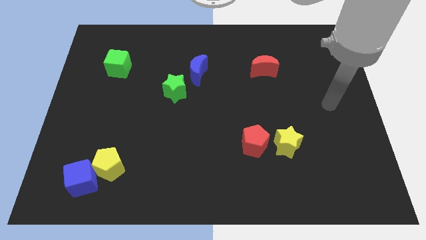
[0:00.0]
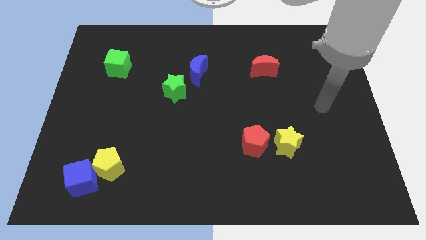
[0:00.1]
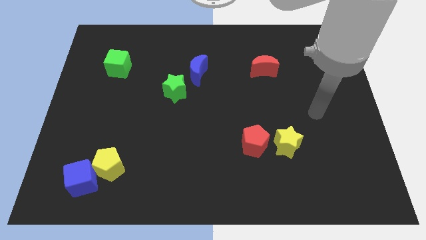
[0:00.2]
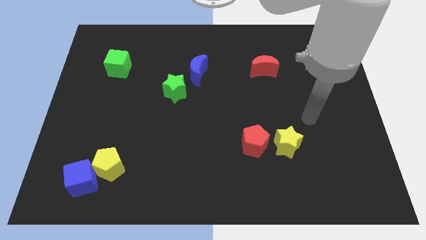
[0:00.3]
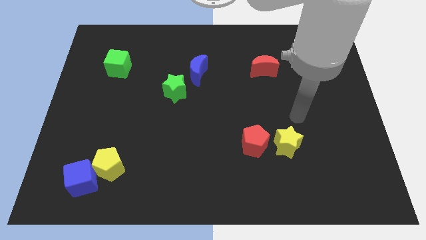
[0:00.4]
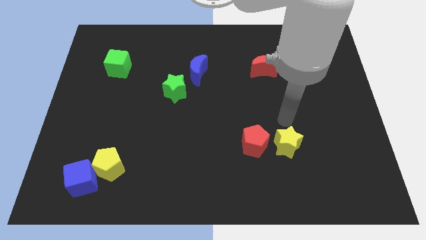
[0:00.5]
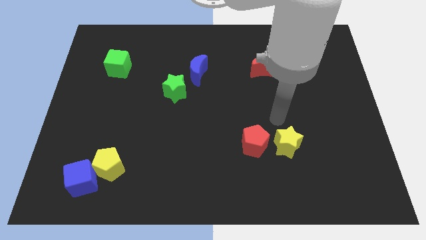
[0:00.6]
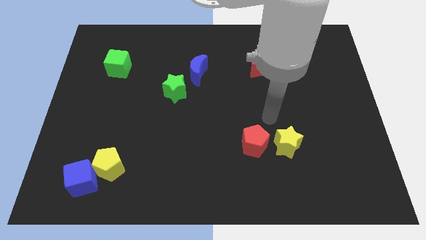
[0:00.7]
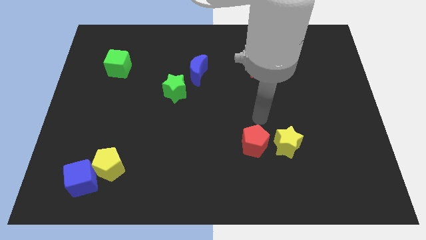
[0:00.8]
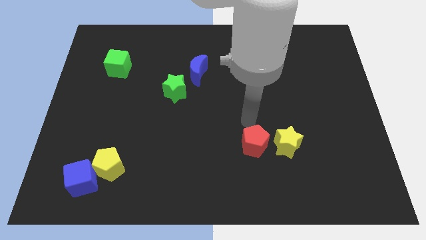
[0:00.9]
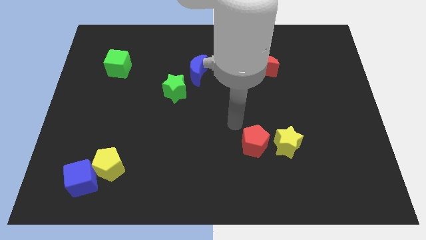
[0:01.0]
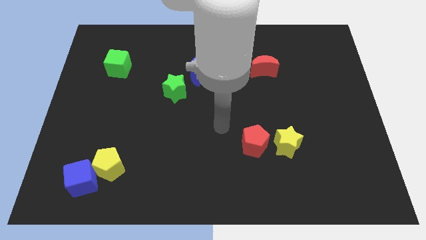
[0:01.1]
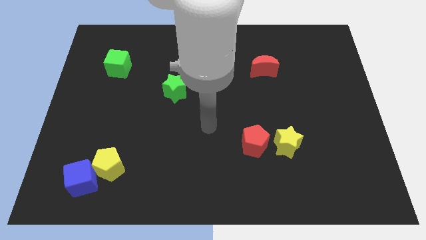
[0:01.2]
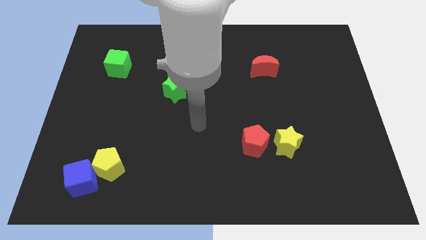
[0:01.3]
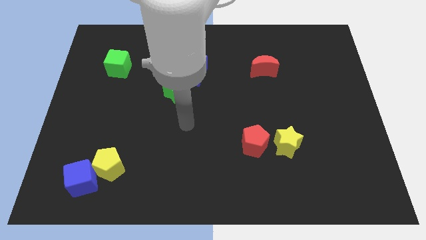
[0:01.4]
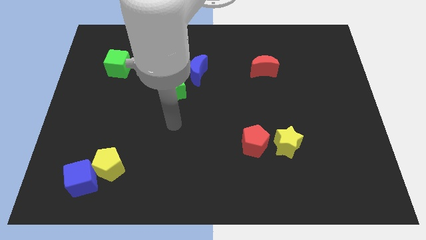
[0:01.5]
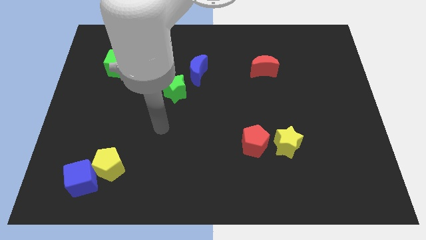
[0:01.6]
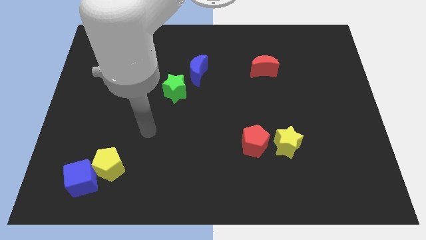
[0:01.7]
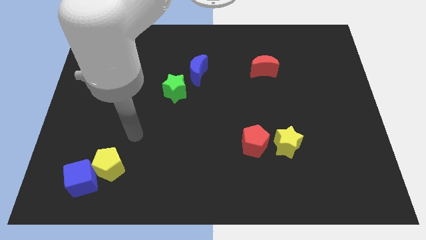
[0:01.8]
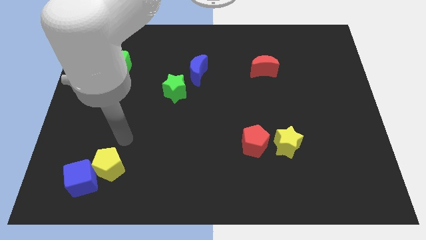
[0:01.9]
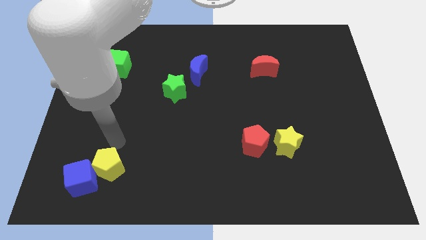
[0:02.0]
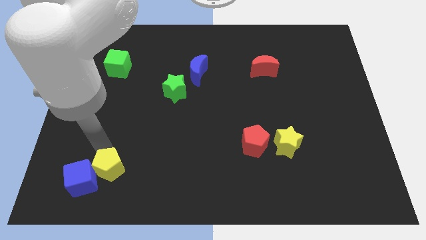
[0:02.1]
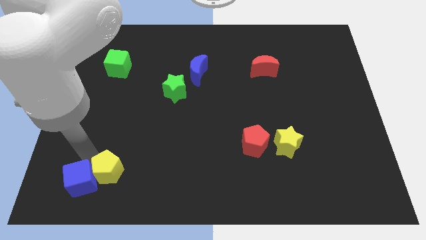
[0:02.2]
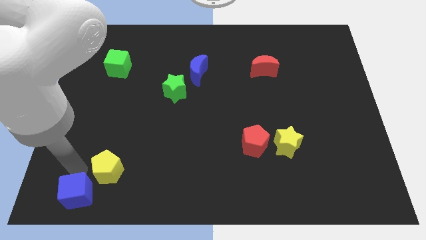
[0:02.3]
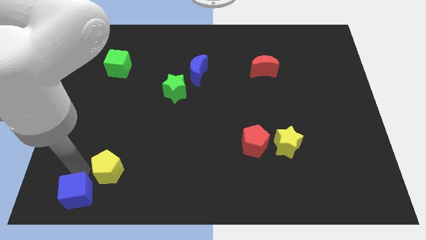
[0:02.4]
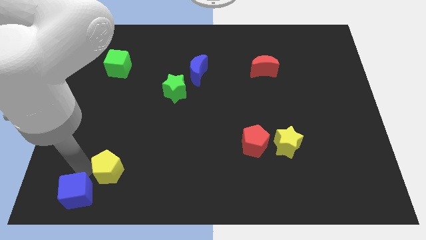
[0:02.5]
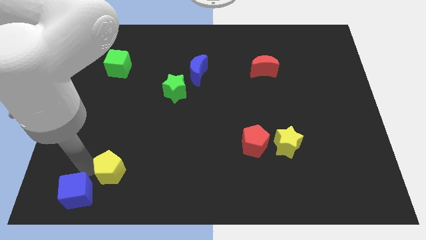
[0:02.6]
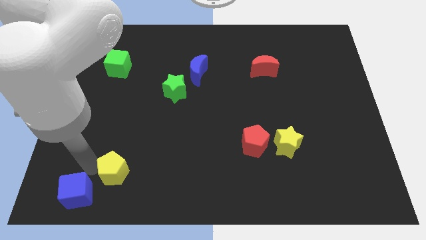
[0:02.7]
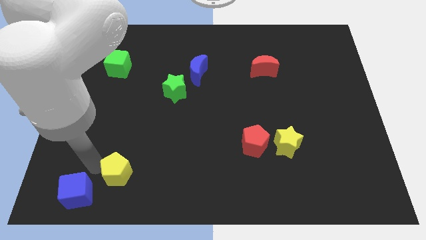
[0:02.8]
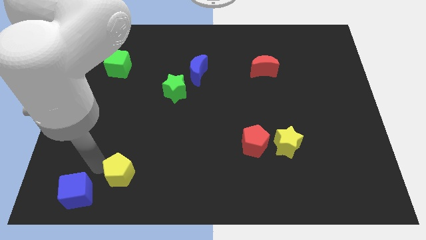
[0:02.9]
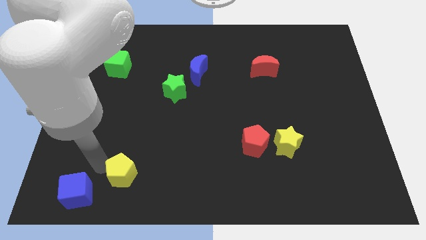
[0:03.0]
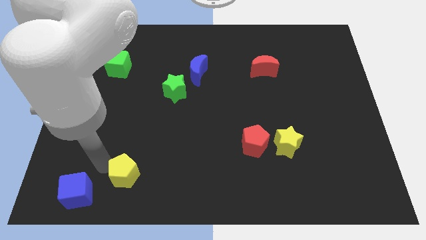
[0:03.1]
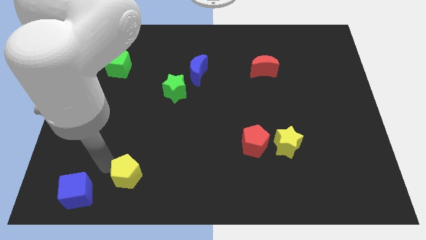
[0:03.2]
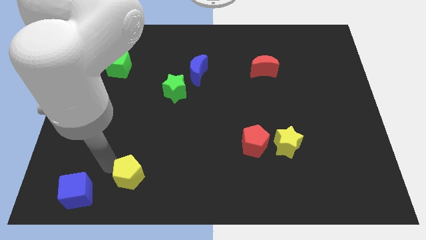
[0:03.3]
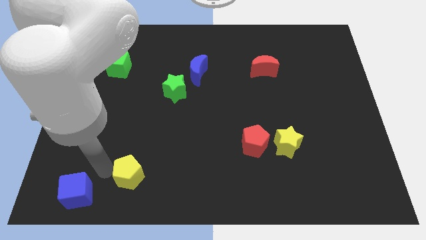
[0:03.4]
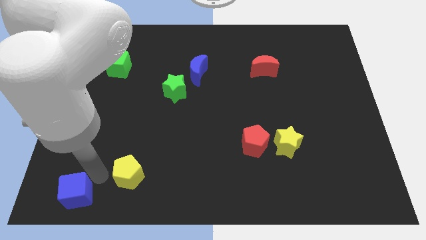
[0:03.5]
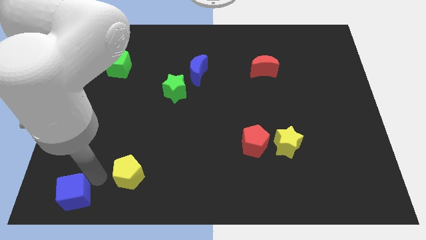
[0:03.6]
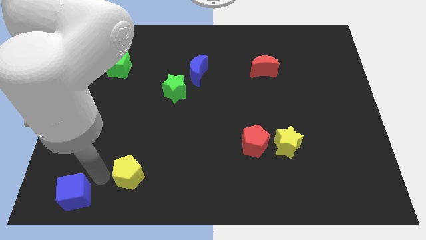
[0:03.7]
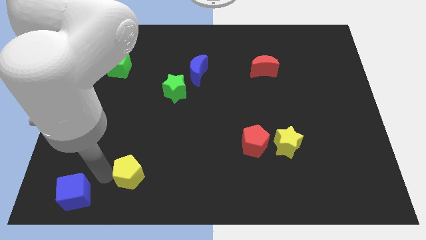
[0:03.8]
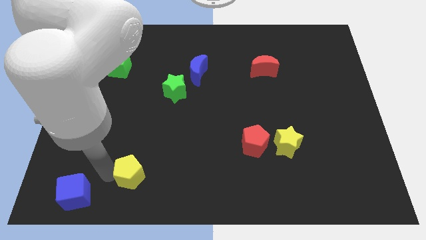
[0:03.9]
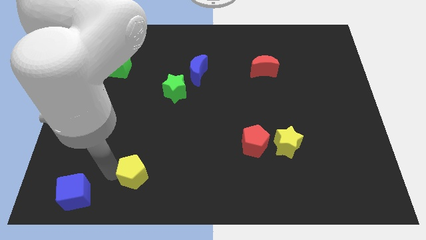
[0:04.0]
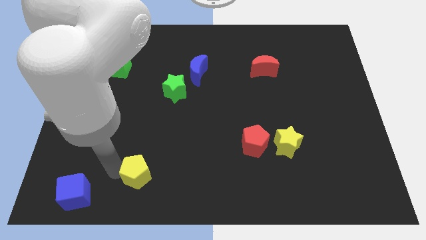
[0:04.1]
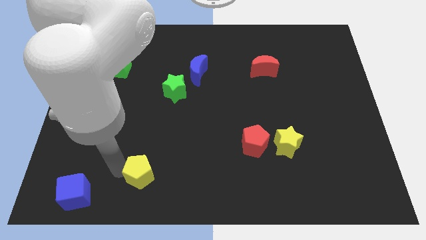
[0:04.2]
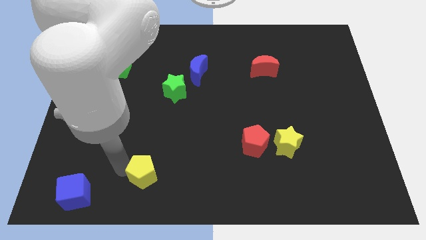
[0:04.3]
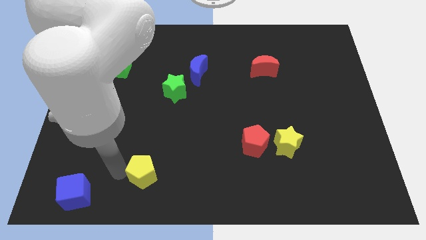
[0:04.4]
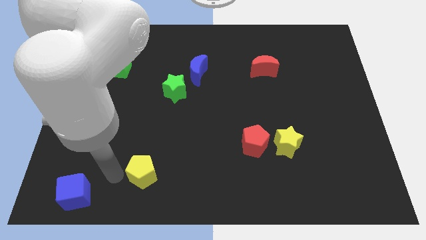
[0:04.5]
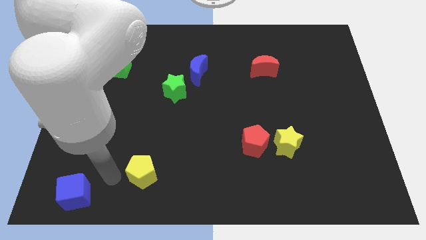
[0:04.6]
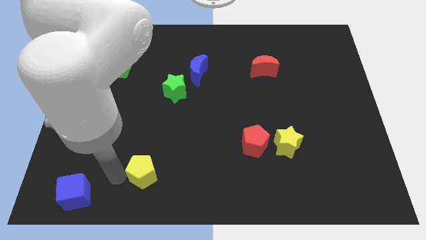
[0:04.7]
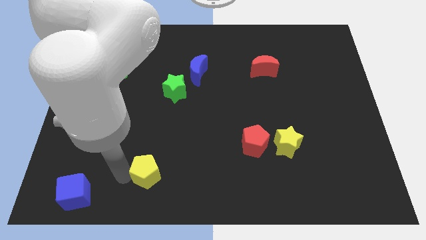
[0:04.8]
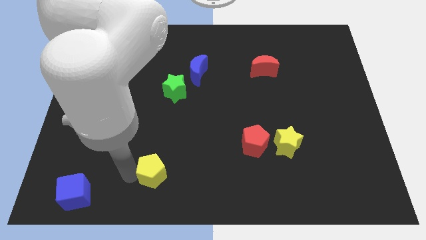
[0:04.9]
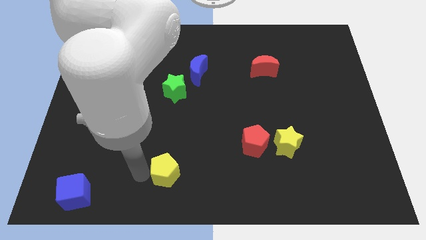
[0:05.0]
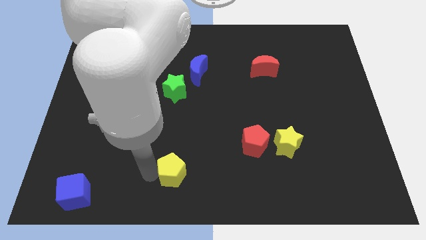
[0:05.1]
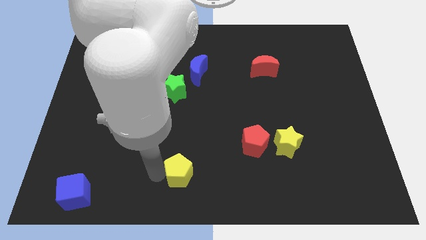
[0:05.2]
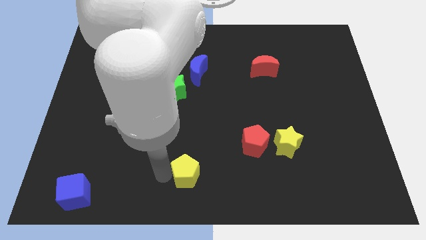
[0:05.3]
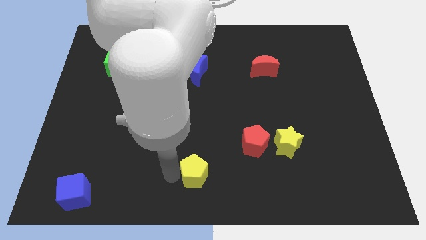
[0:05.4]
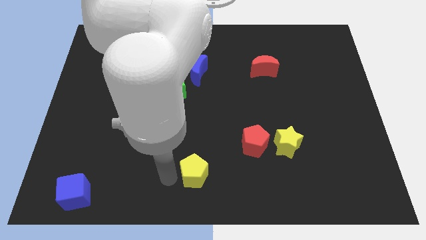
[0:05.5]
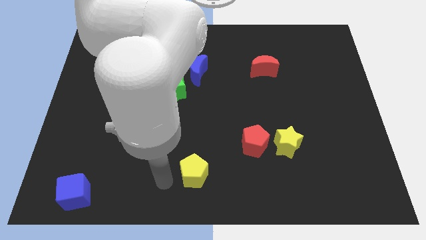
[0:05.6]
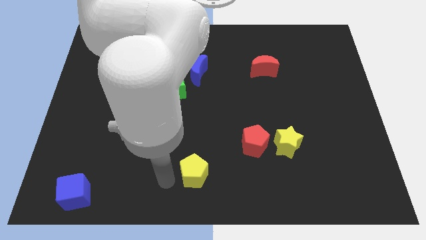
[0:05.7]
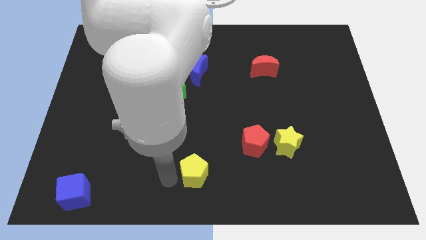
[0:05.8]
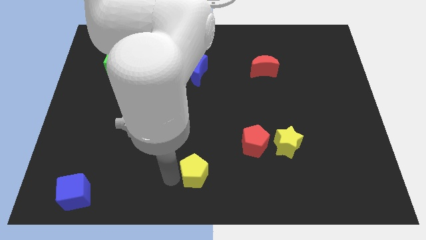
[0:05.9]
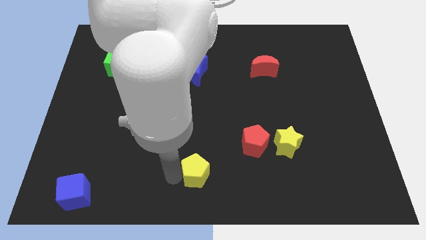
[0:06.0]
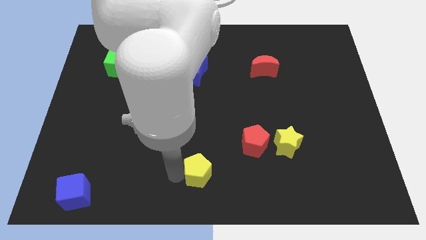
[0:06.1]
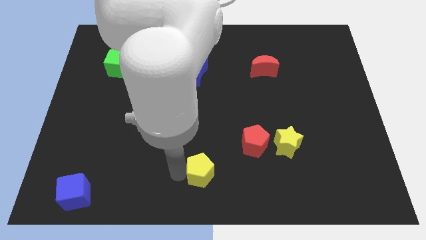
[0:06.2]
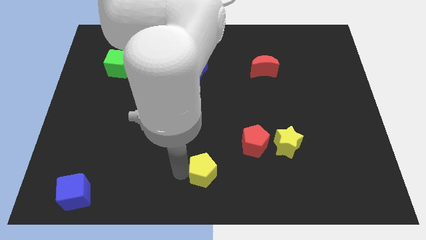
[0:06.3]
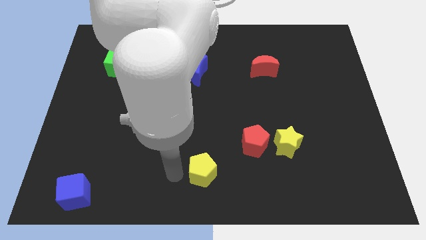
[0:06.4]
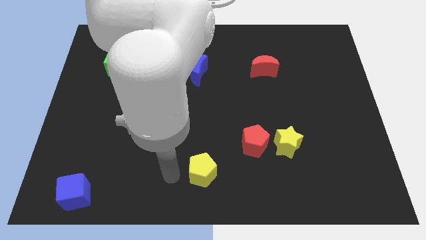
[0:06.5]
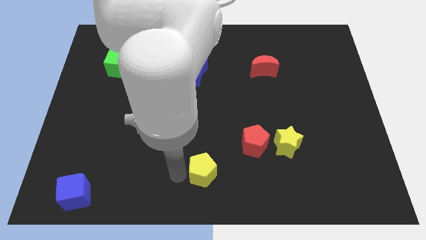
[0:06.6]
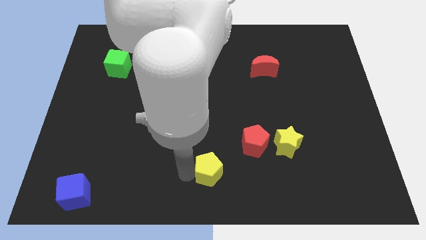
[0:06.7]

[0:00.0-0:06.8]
move the yellow pentagon to the right

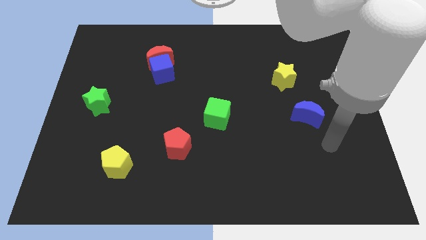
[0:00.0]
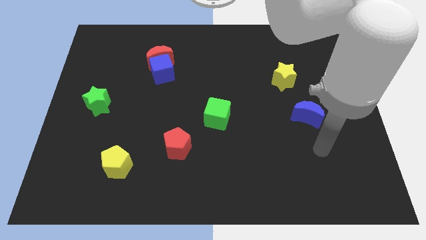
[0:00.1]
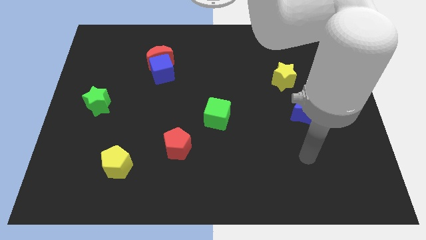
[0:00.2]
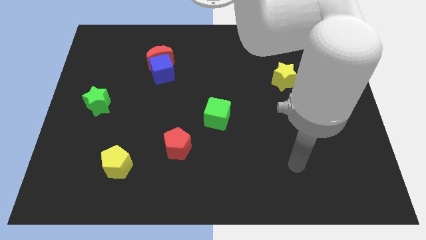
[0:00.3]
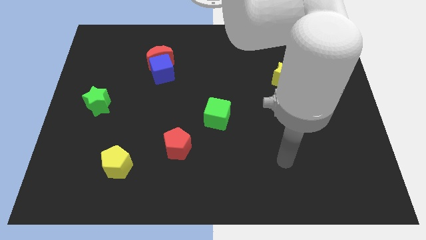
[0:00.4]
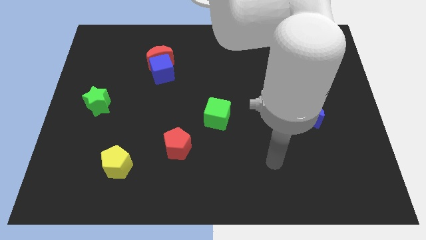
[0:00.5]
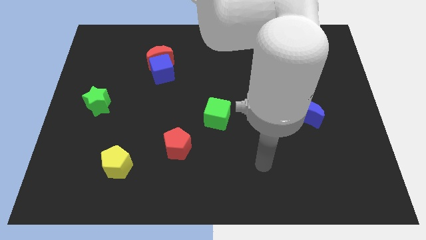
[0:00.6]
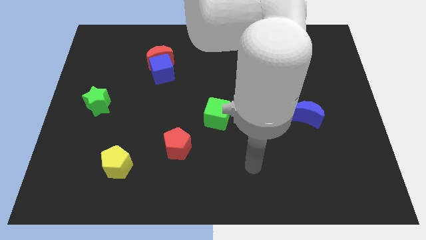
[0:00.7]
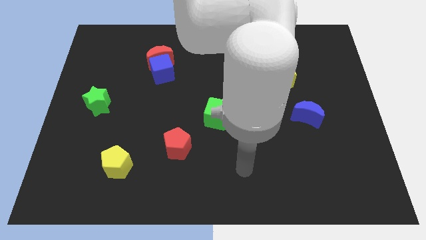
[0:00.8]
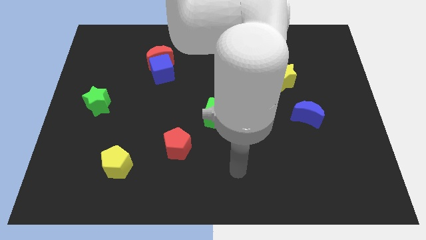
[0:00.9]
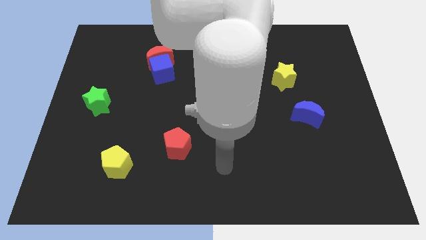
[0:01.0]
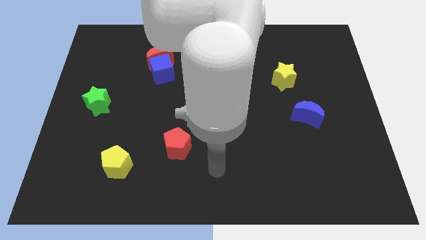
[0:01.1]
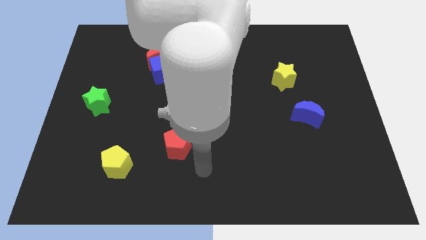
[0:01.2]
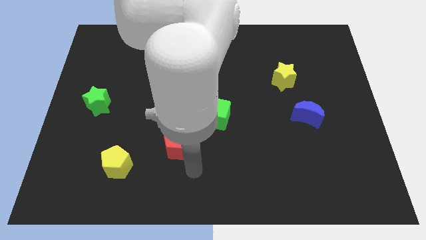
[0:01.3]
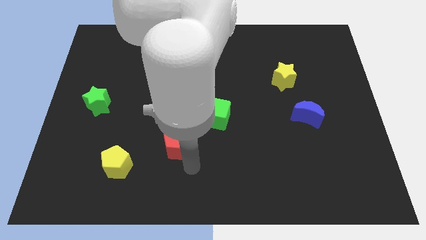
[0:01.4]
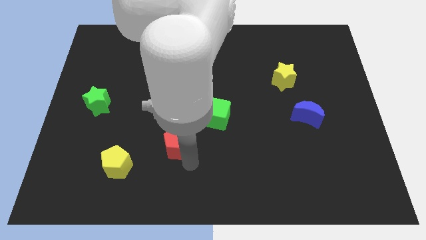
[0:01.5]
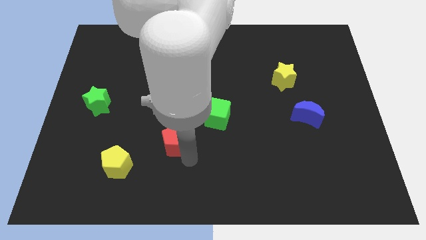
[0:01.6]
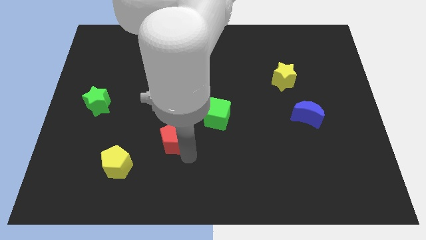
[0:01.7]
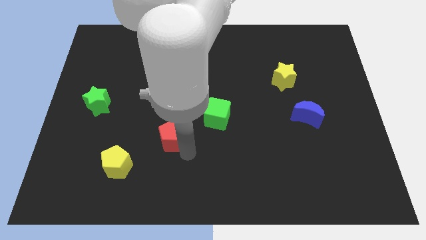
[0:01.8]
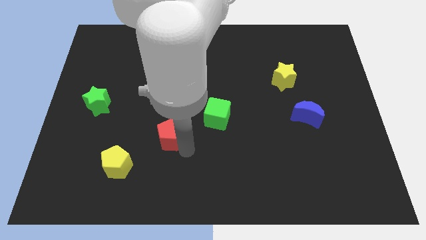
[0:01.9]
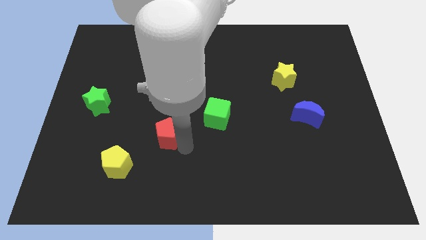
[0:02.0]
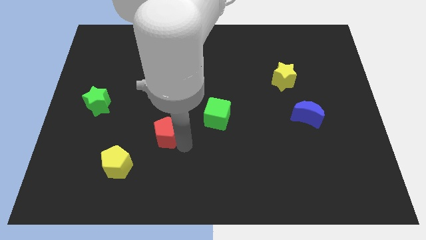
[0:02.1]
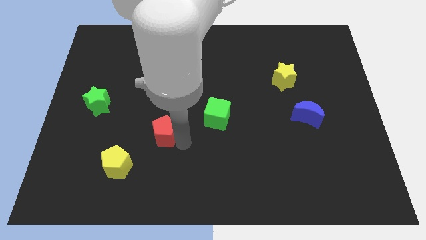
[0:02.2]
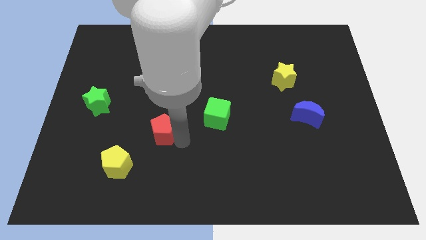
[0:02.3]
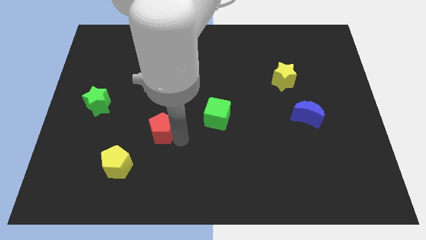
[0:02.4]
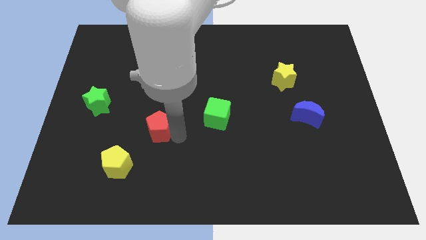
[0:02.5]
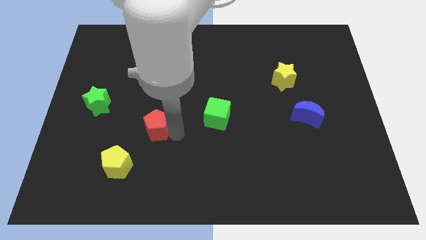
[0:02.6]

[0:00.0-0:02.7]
move the red pentagon upwards and to the left diagonally slightly
